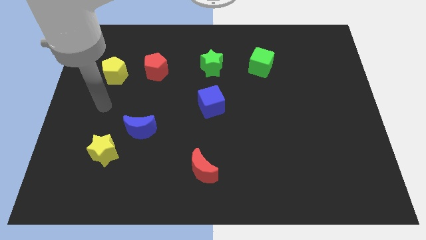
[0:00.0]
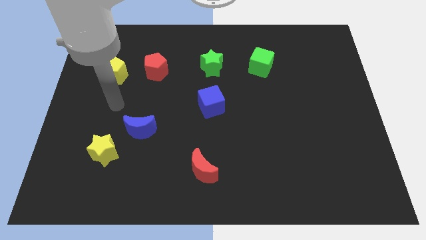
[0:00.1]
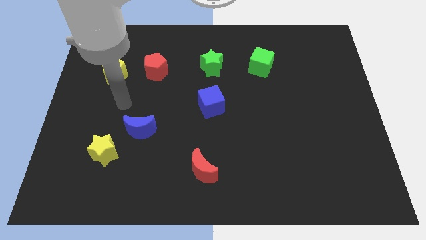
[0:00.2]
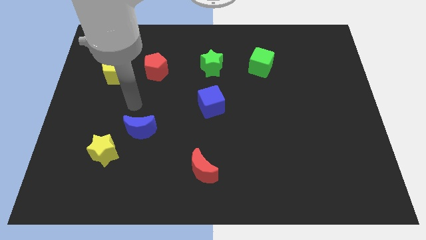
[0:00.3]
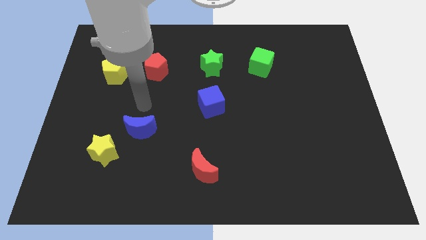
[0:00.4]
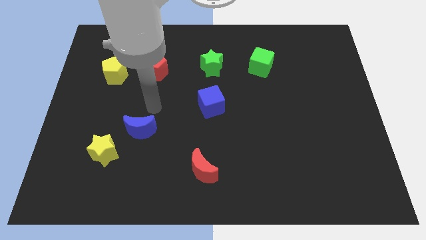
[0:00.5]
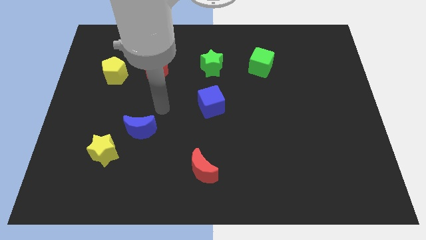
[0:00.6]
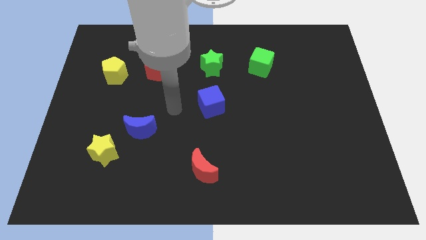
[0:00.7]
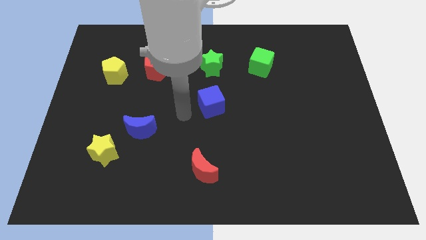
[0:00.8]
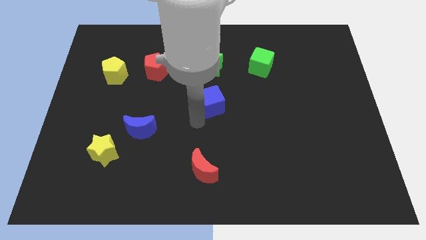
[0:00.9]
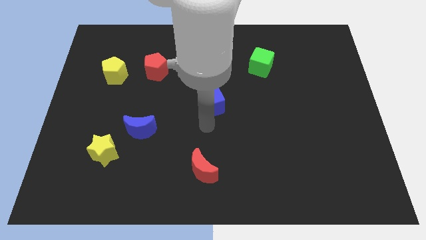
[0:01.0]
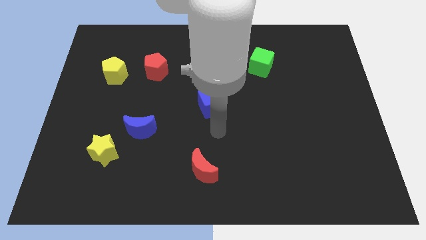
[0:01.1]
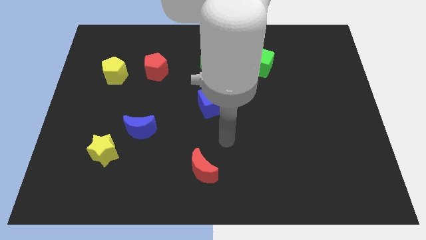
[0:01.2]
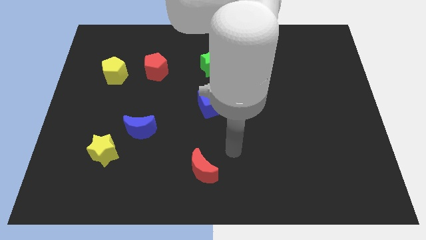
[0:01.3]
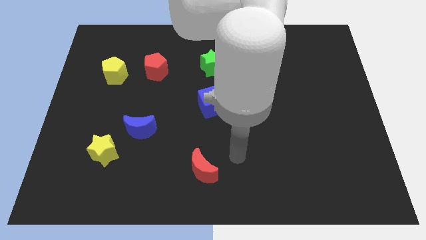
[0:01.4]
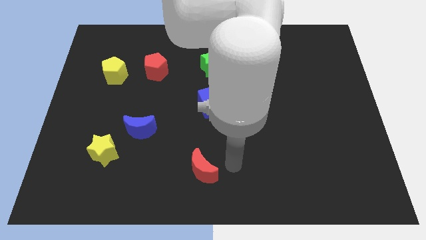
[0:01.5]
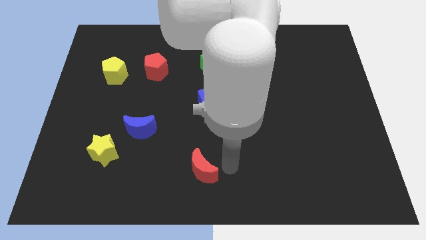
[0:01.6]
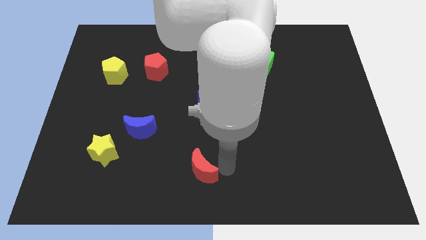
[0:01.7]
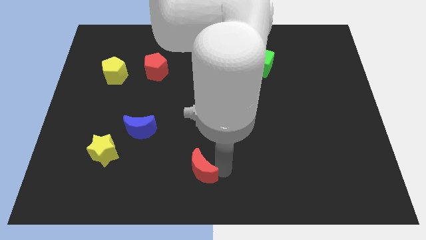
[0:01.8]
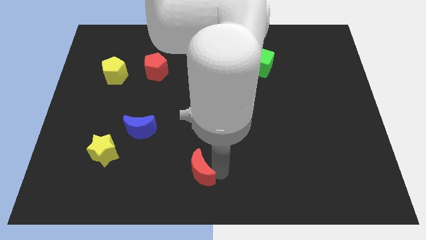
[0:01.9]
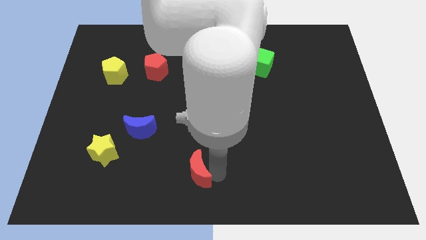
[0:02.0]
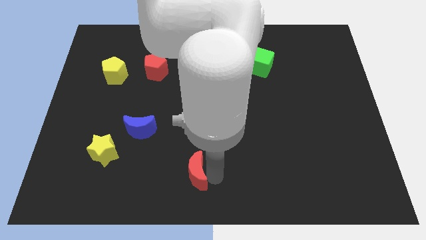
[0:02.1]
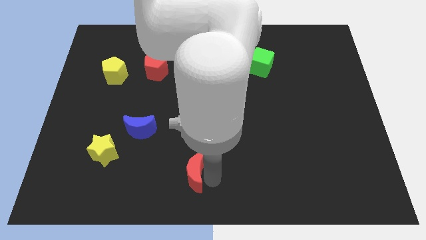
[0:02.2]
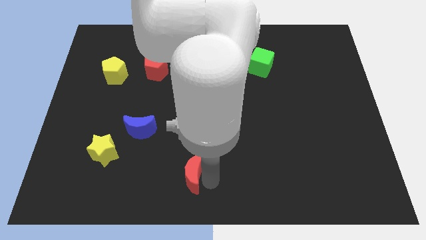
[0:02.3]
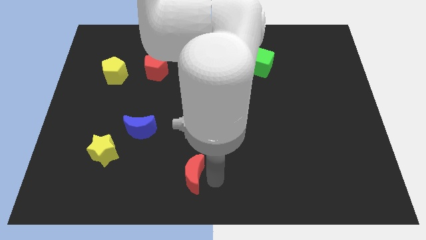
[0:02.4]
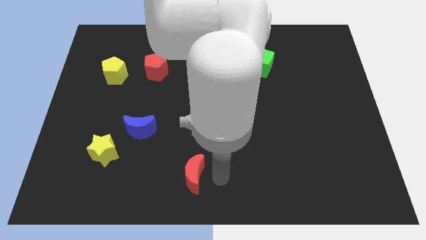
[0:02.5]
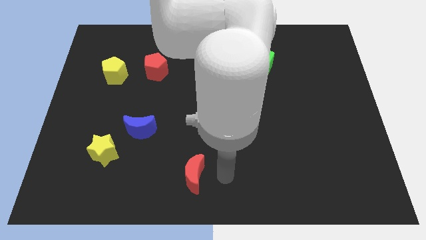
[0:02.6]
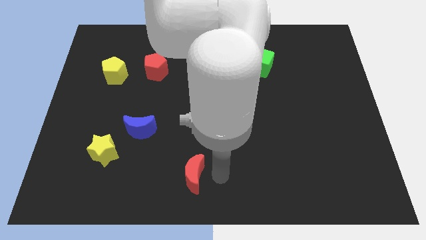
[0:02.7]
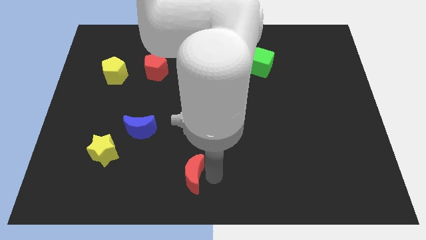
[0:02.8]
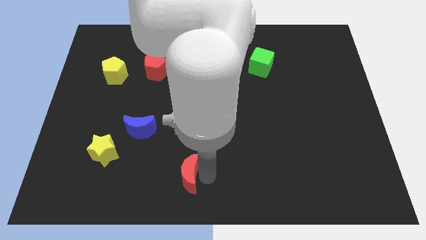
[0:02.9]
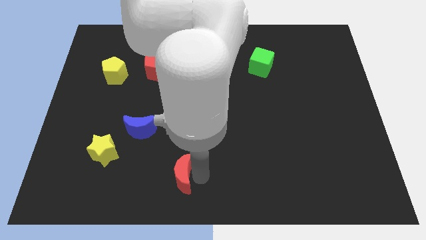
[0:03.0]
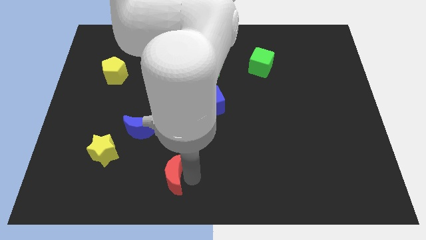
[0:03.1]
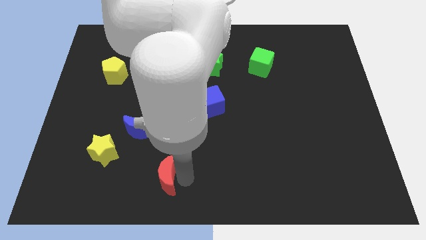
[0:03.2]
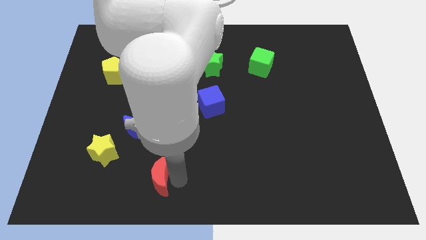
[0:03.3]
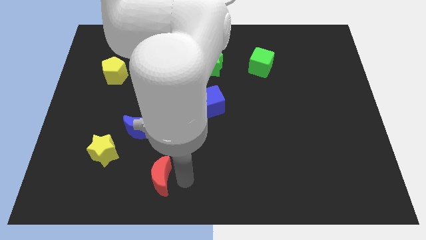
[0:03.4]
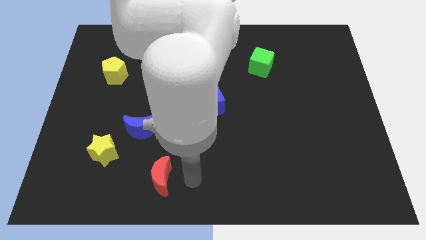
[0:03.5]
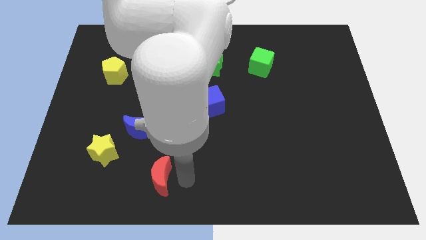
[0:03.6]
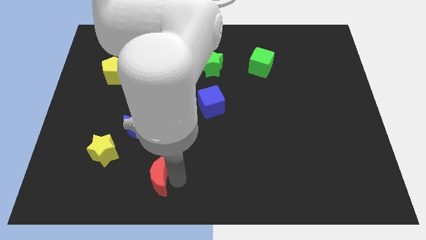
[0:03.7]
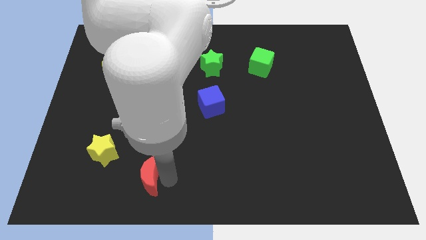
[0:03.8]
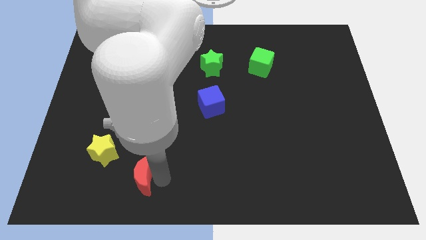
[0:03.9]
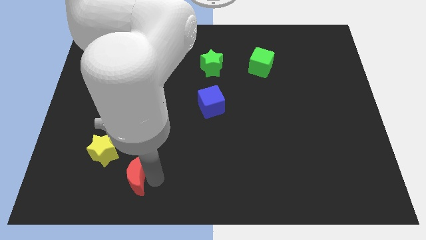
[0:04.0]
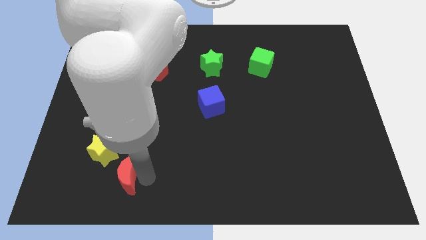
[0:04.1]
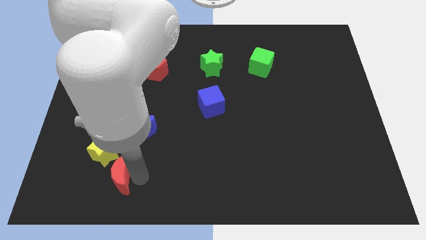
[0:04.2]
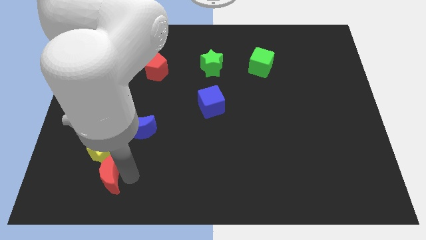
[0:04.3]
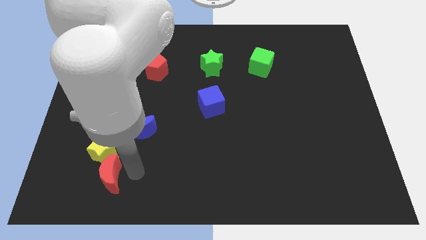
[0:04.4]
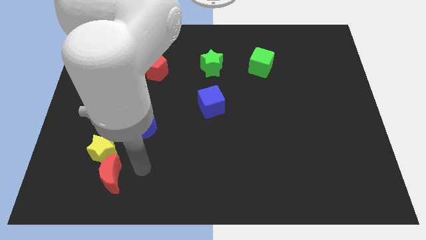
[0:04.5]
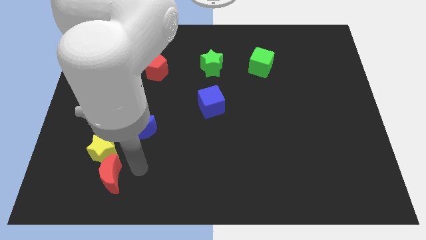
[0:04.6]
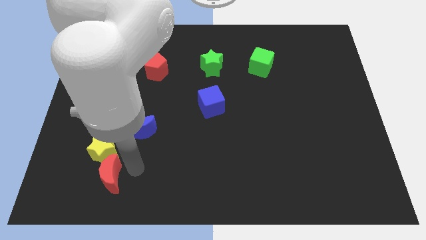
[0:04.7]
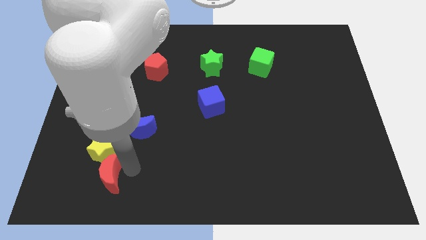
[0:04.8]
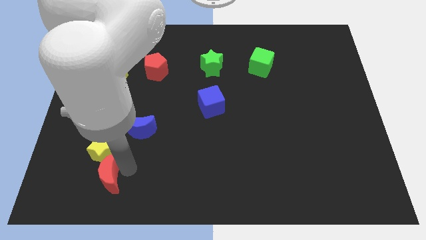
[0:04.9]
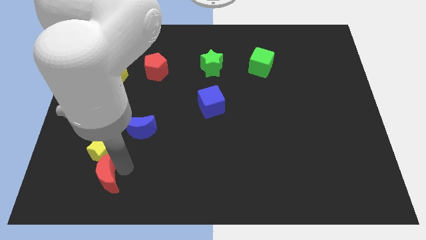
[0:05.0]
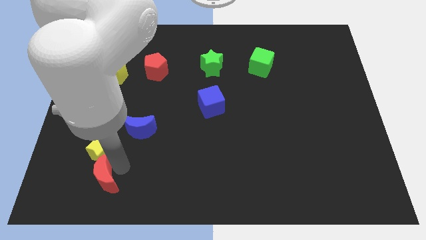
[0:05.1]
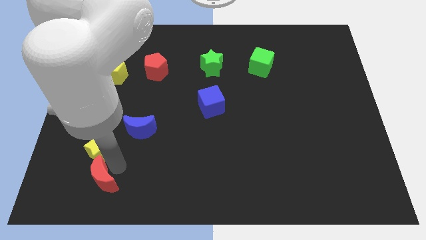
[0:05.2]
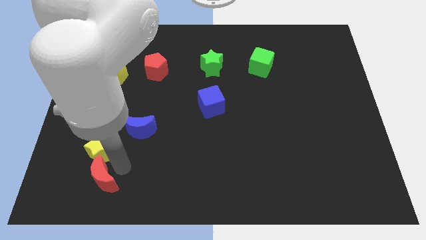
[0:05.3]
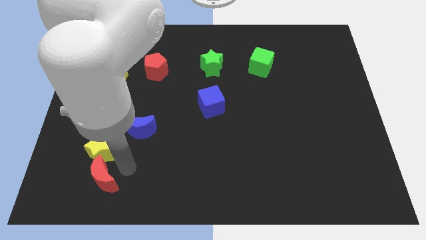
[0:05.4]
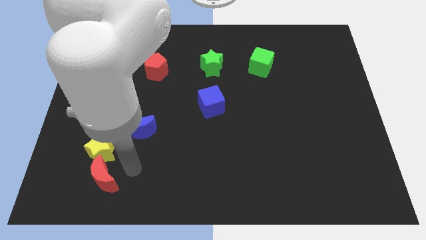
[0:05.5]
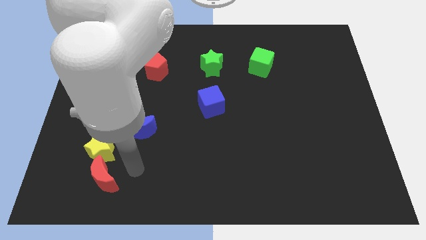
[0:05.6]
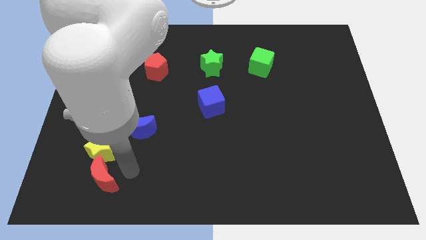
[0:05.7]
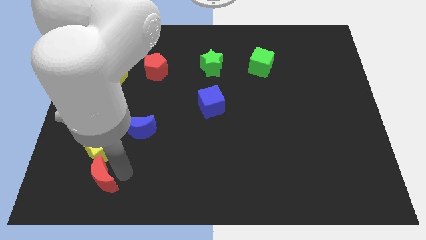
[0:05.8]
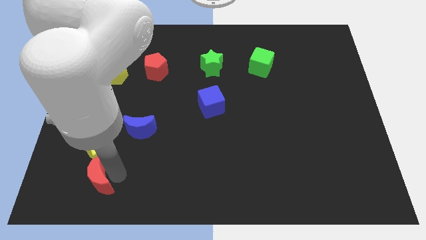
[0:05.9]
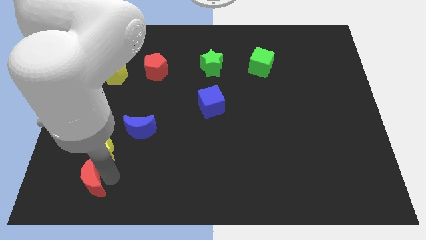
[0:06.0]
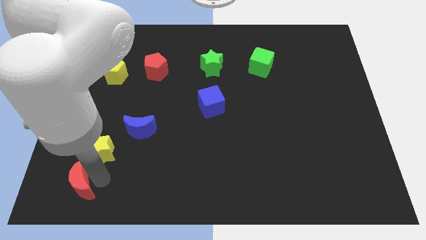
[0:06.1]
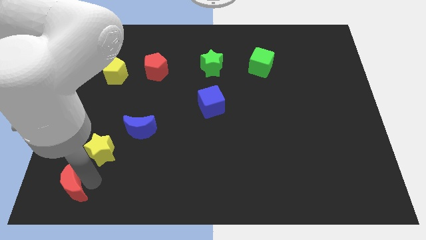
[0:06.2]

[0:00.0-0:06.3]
put the red moon to the bottom left corner

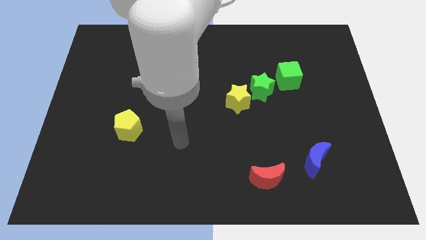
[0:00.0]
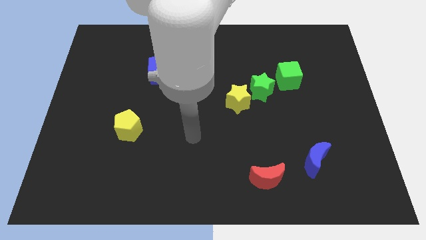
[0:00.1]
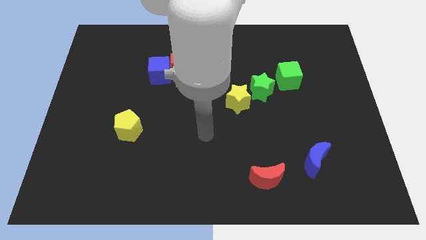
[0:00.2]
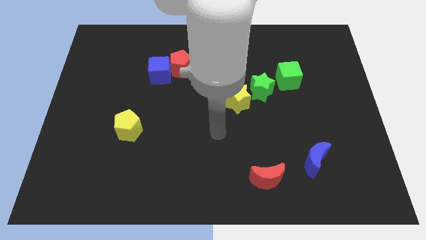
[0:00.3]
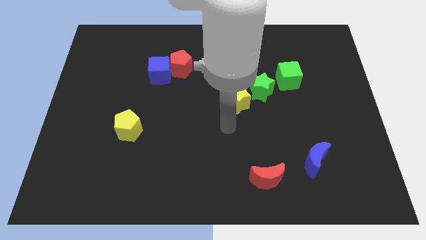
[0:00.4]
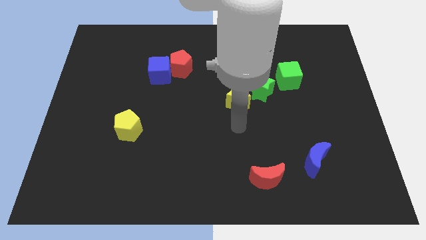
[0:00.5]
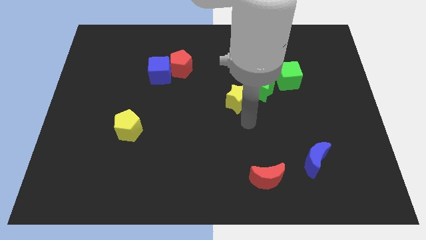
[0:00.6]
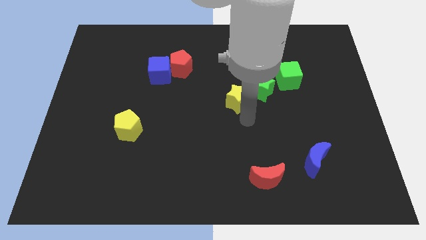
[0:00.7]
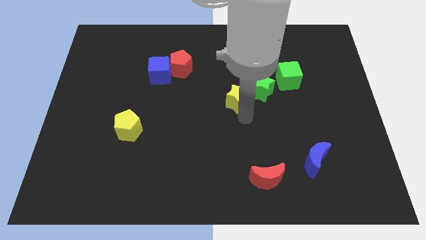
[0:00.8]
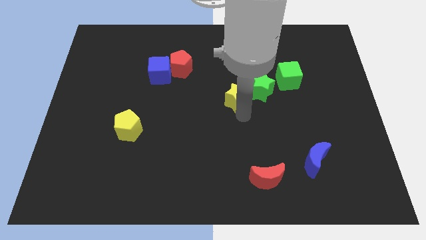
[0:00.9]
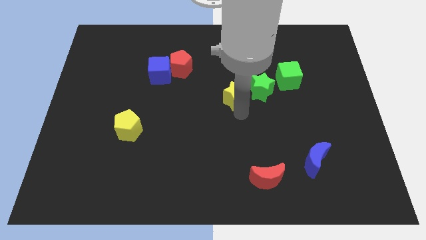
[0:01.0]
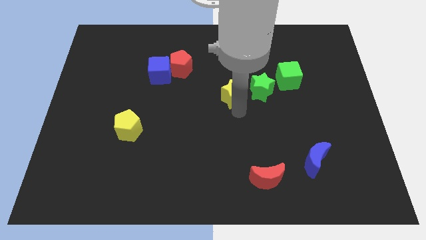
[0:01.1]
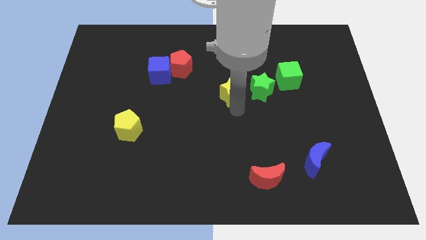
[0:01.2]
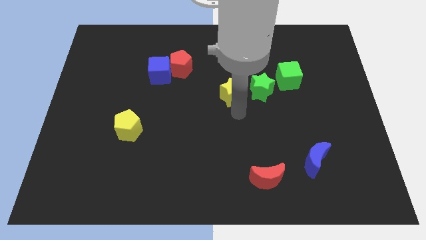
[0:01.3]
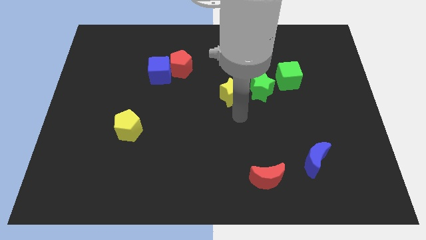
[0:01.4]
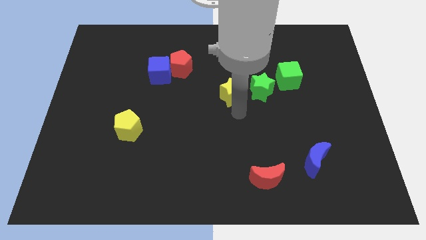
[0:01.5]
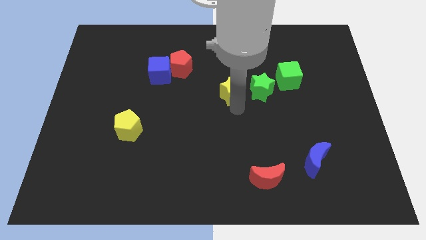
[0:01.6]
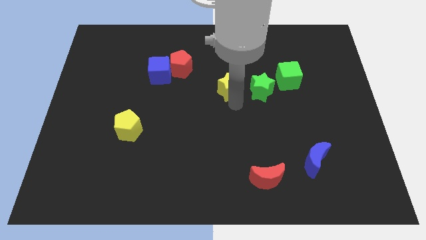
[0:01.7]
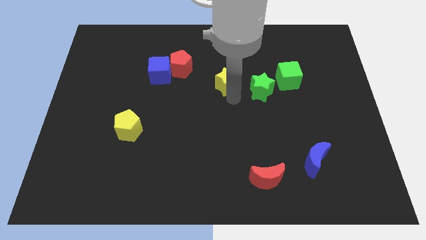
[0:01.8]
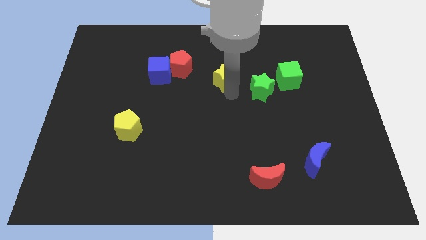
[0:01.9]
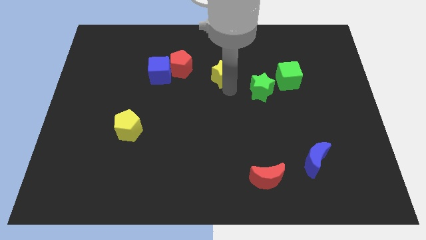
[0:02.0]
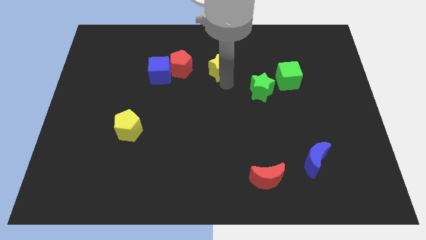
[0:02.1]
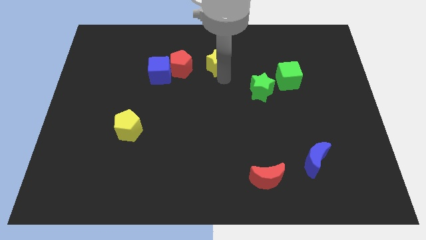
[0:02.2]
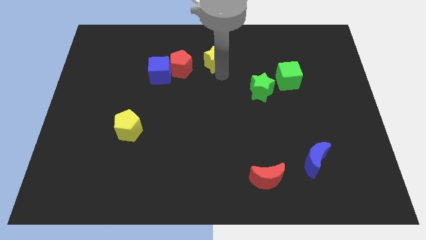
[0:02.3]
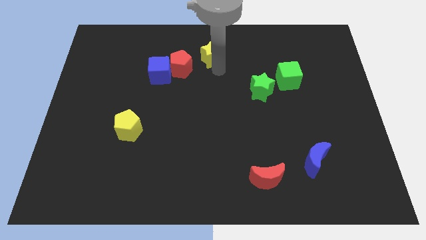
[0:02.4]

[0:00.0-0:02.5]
put the yellow star to the towards your base
